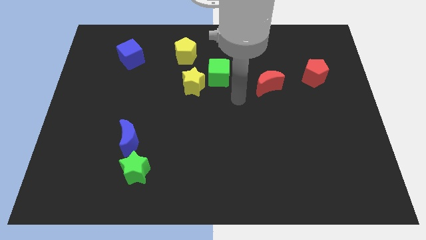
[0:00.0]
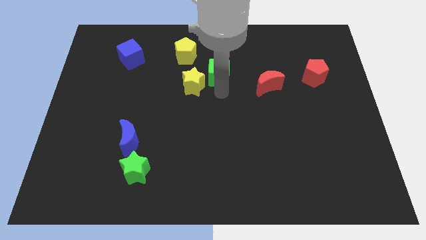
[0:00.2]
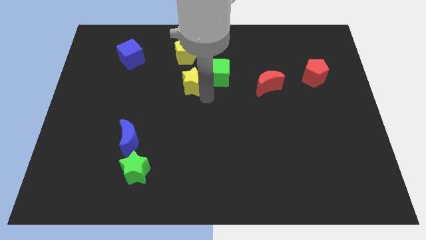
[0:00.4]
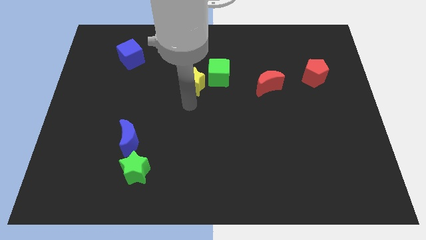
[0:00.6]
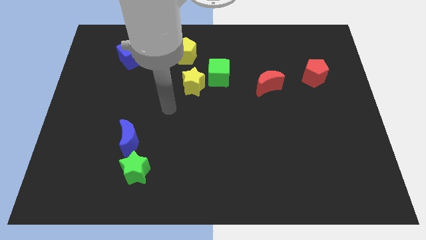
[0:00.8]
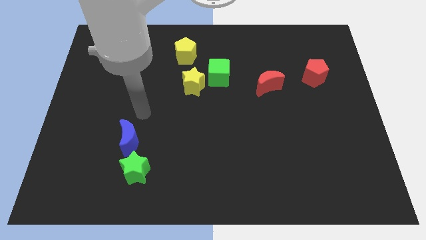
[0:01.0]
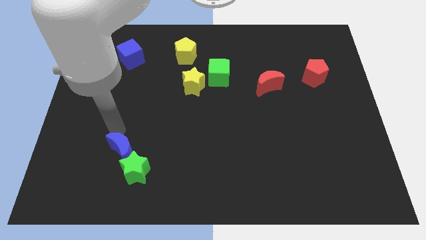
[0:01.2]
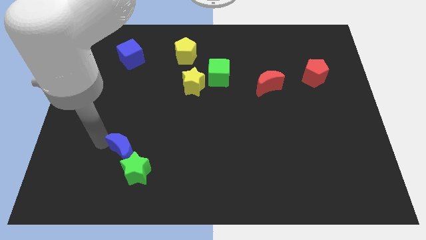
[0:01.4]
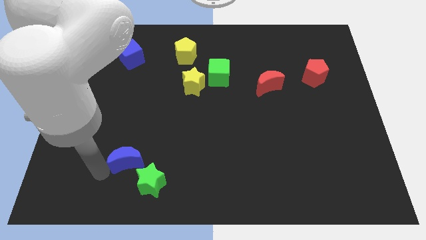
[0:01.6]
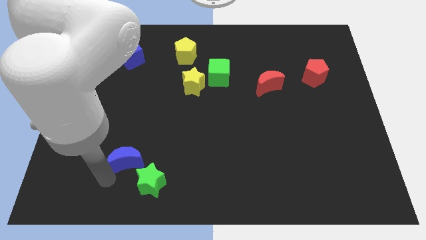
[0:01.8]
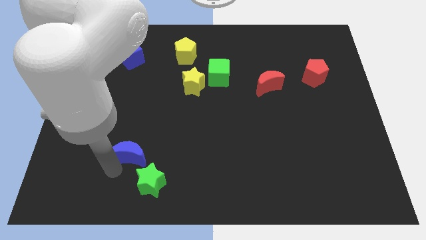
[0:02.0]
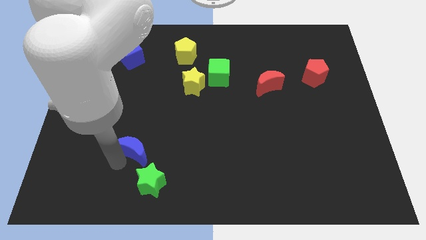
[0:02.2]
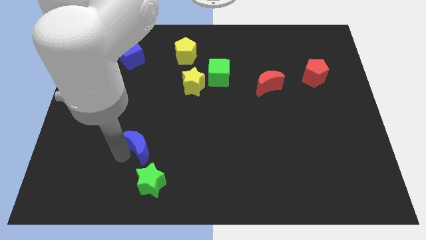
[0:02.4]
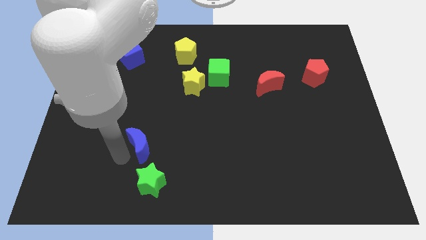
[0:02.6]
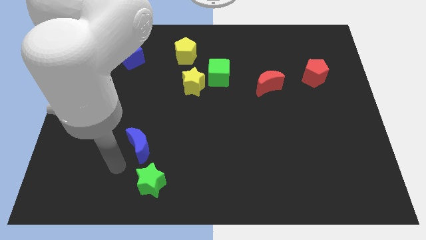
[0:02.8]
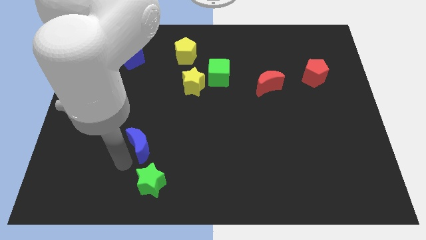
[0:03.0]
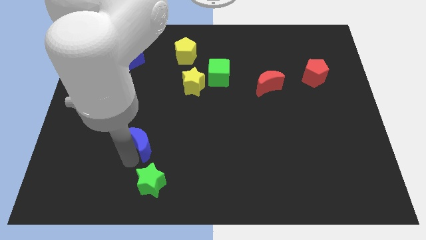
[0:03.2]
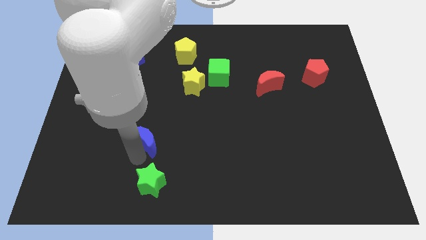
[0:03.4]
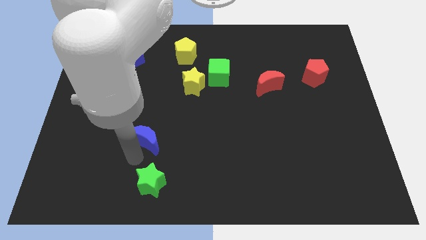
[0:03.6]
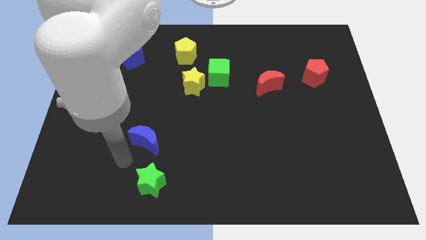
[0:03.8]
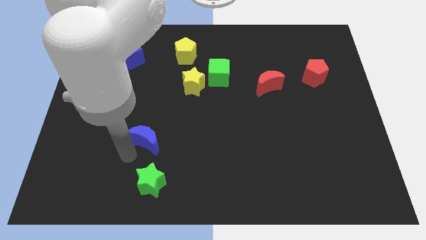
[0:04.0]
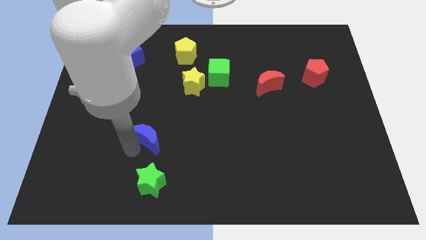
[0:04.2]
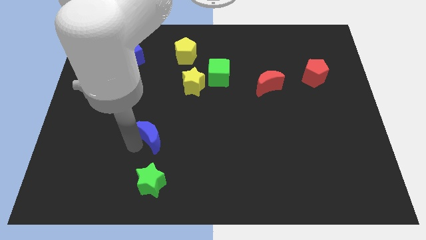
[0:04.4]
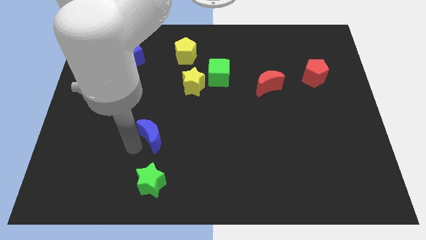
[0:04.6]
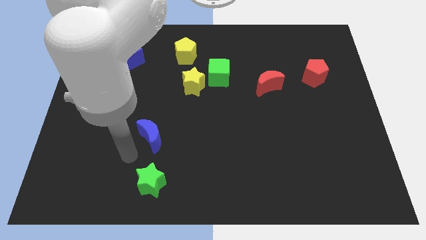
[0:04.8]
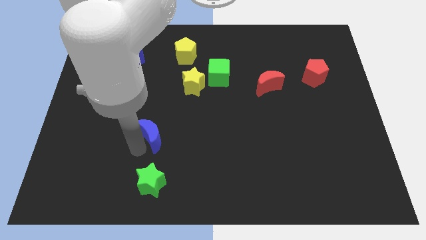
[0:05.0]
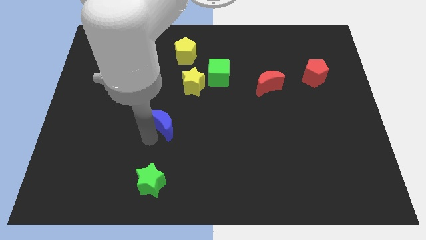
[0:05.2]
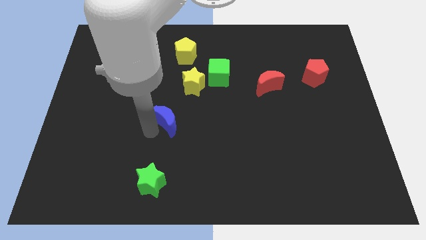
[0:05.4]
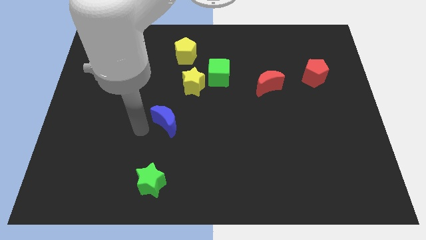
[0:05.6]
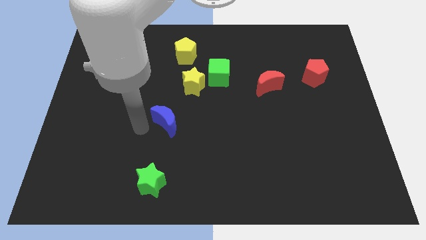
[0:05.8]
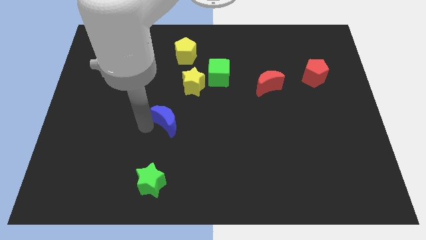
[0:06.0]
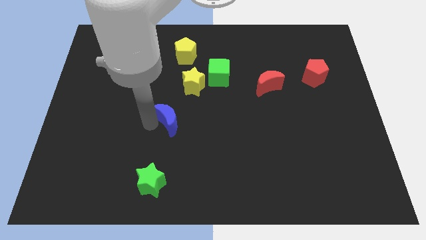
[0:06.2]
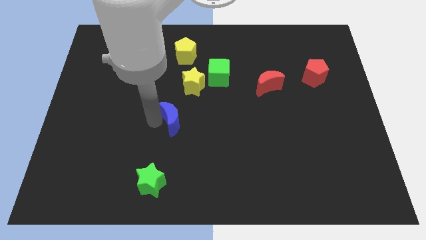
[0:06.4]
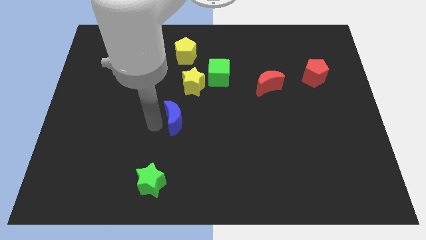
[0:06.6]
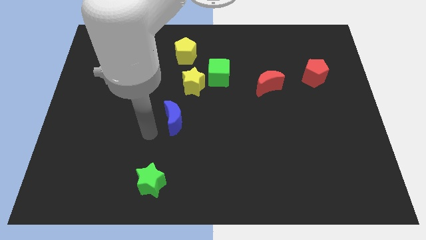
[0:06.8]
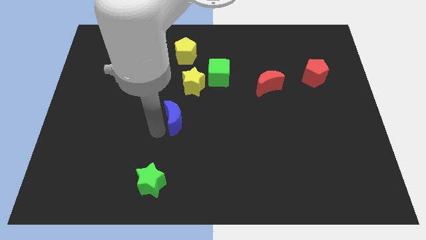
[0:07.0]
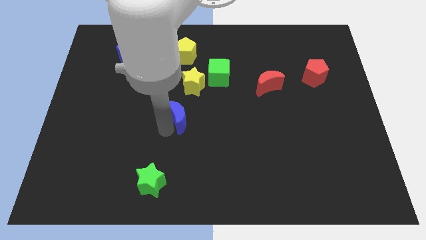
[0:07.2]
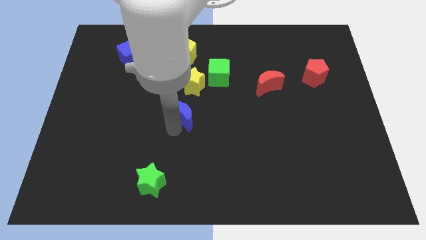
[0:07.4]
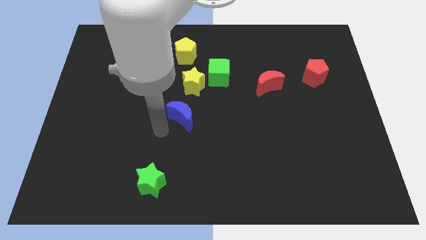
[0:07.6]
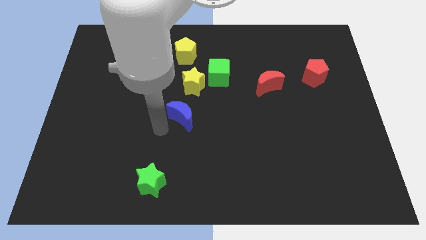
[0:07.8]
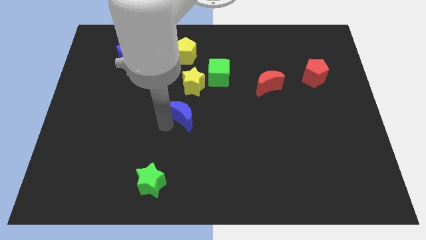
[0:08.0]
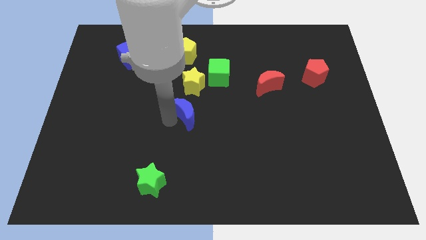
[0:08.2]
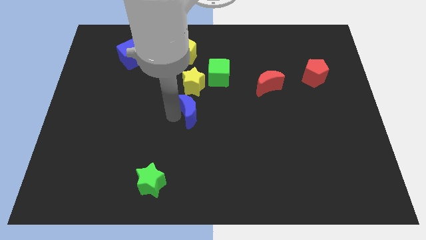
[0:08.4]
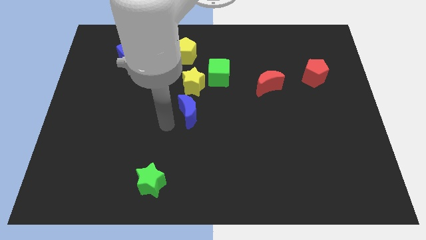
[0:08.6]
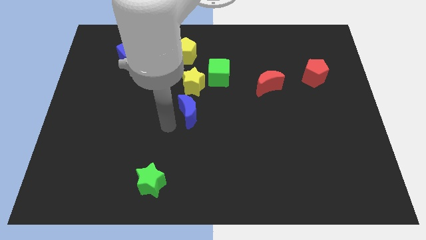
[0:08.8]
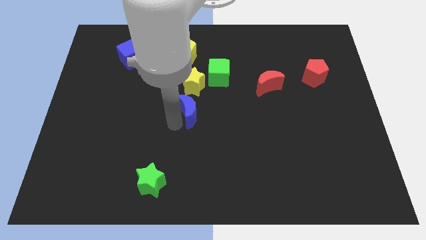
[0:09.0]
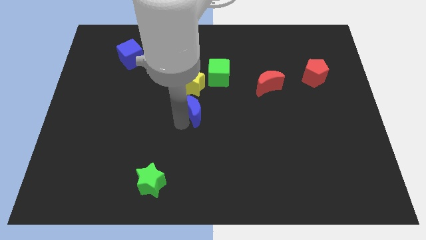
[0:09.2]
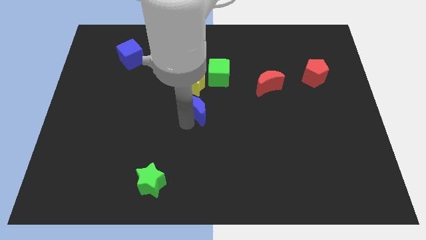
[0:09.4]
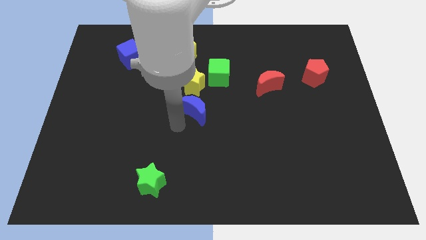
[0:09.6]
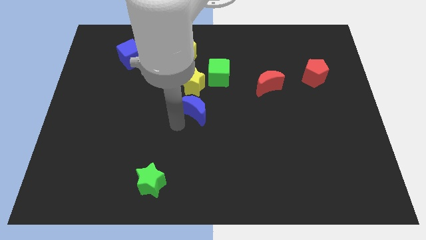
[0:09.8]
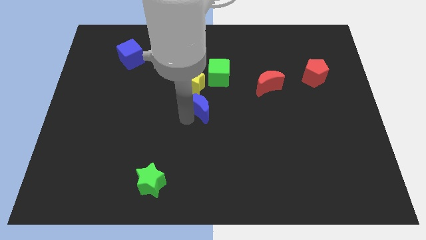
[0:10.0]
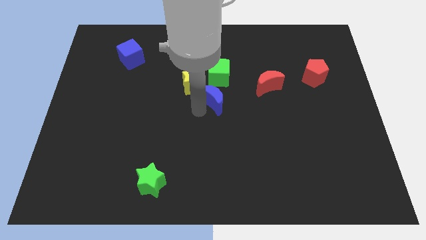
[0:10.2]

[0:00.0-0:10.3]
push the blue moon diagonally upwards and right

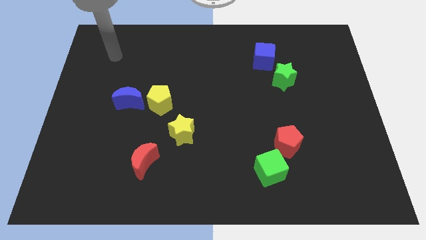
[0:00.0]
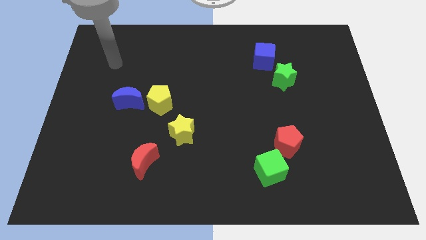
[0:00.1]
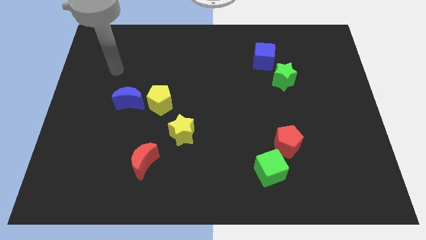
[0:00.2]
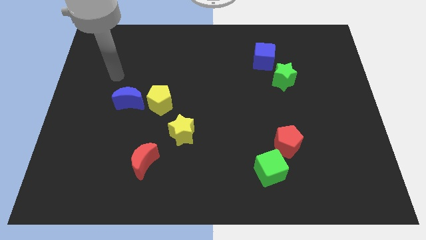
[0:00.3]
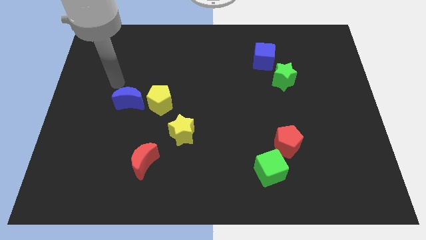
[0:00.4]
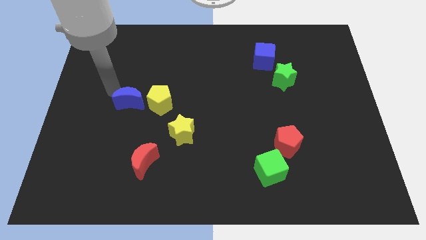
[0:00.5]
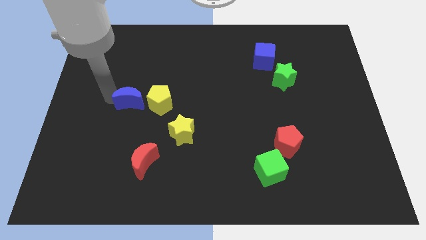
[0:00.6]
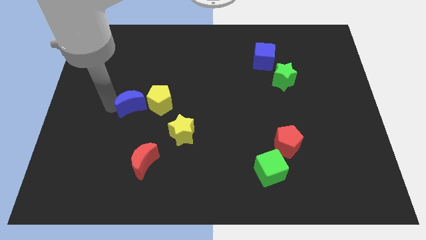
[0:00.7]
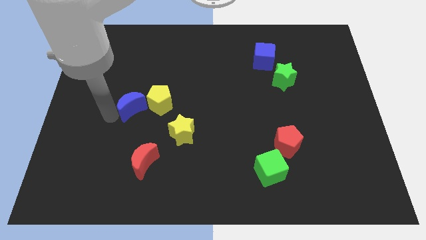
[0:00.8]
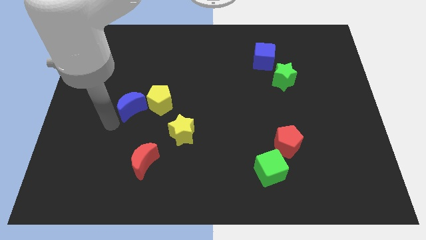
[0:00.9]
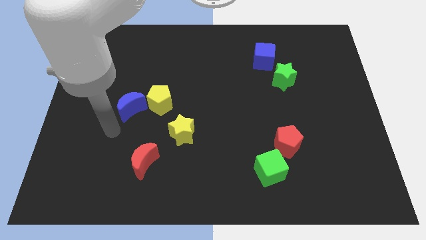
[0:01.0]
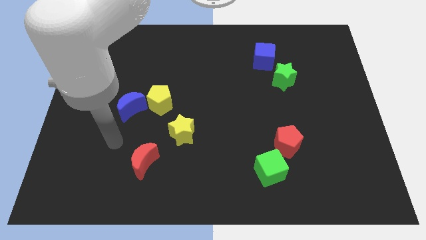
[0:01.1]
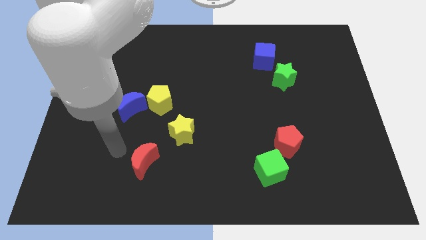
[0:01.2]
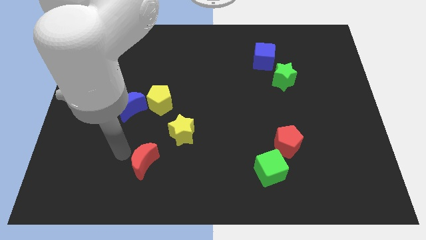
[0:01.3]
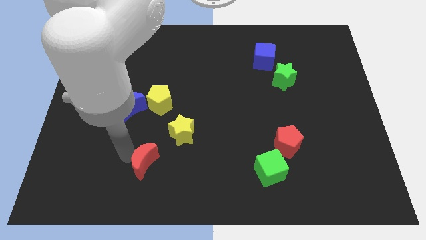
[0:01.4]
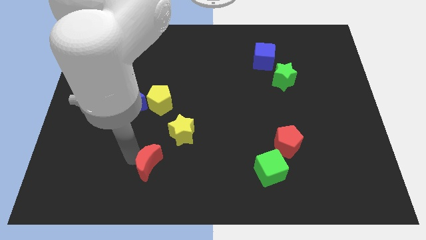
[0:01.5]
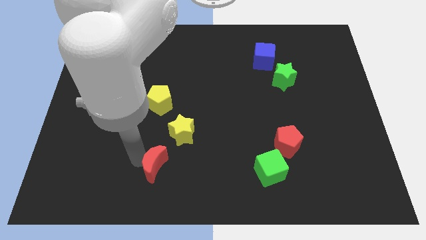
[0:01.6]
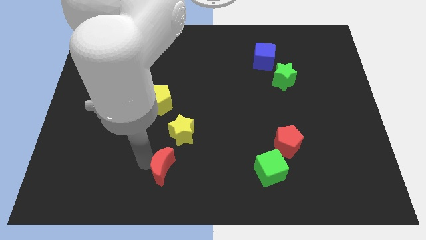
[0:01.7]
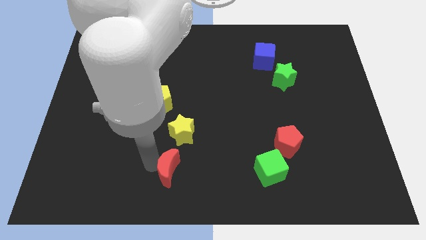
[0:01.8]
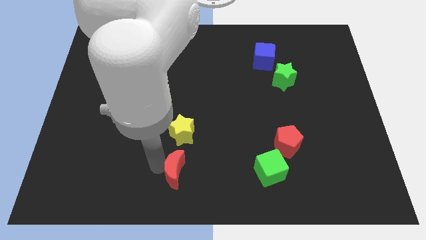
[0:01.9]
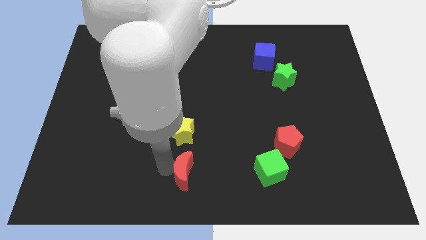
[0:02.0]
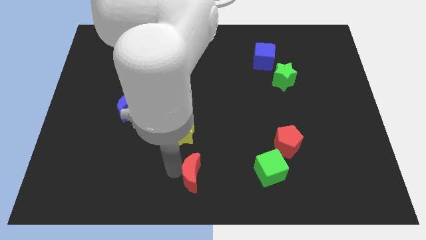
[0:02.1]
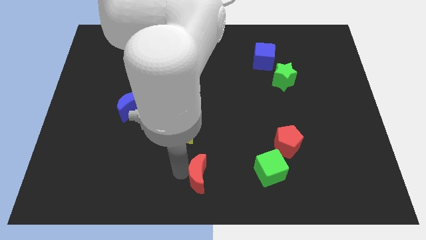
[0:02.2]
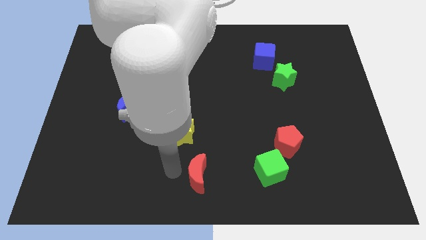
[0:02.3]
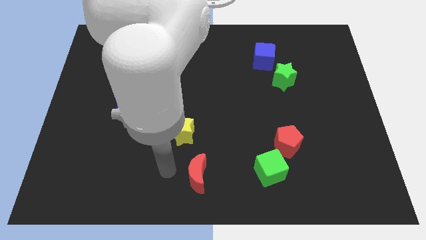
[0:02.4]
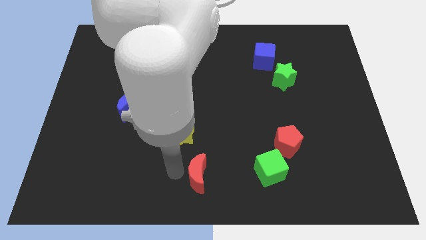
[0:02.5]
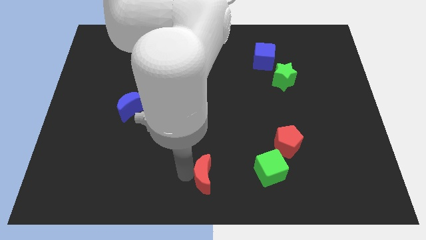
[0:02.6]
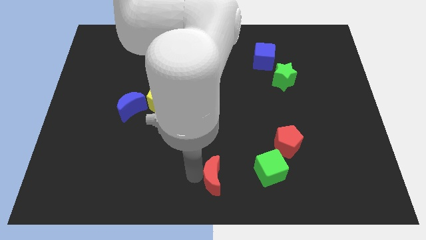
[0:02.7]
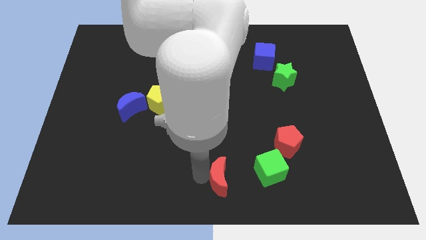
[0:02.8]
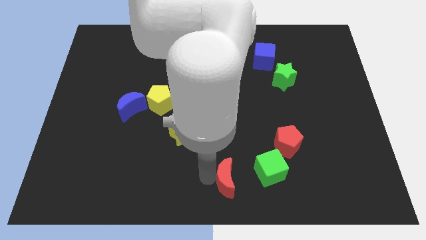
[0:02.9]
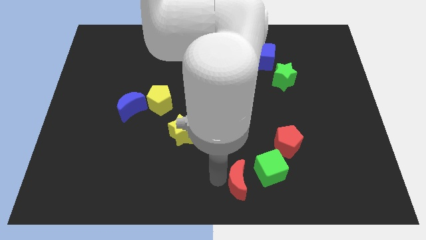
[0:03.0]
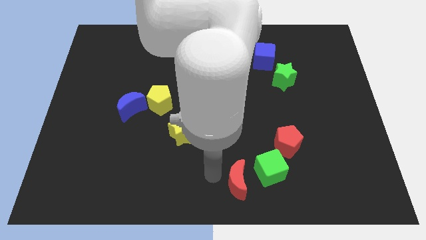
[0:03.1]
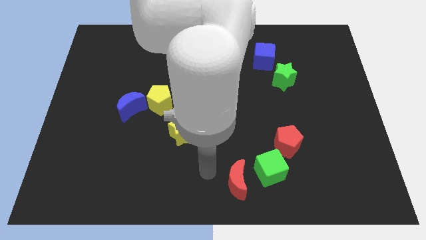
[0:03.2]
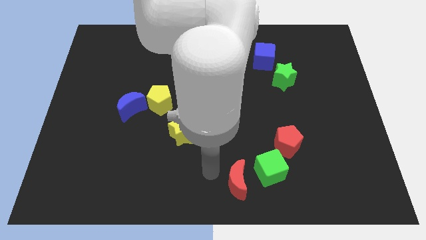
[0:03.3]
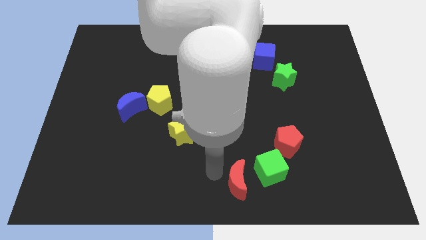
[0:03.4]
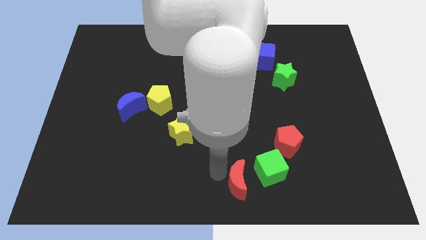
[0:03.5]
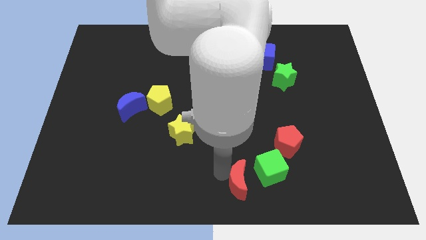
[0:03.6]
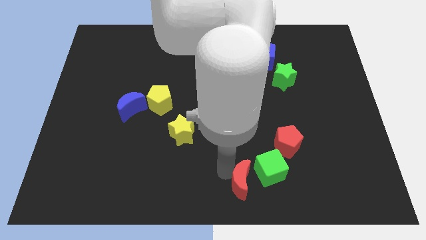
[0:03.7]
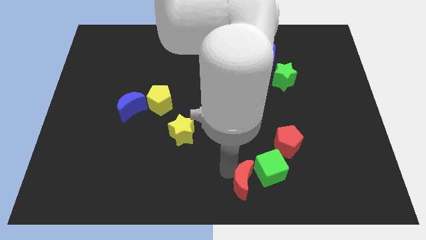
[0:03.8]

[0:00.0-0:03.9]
push the red moon to the right
